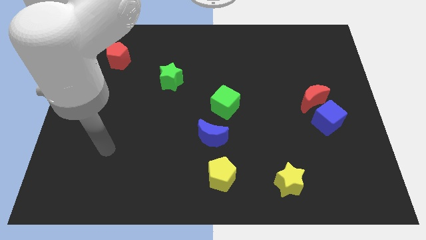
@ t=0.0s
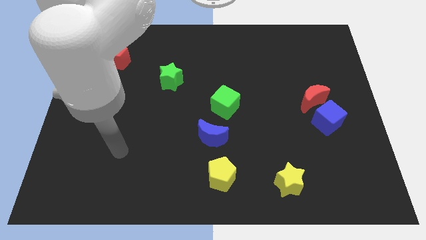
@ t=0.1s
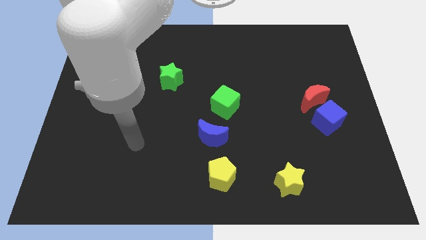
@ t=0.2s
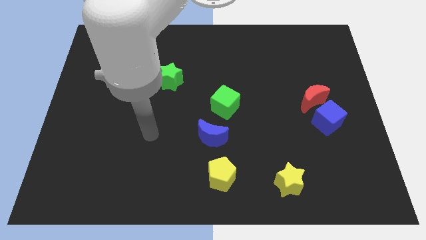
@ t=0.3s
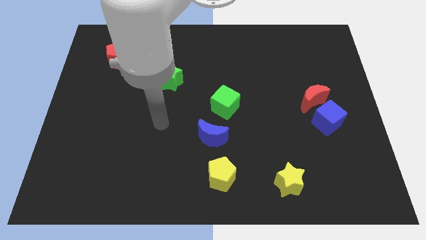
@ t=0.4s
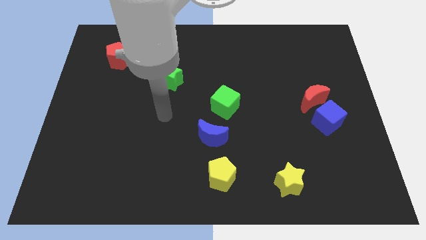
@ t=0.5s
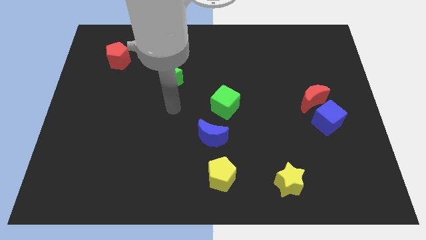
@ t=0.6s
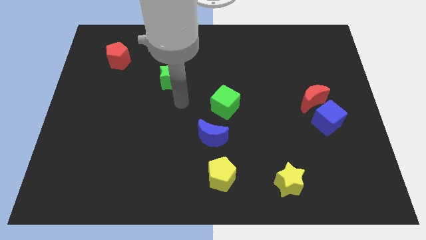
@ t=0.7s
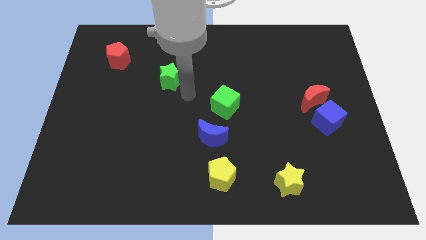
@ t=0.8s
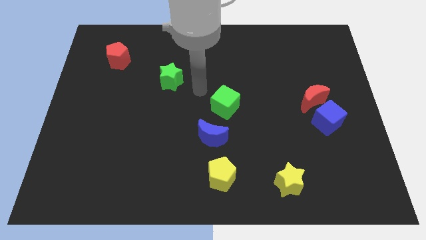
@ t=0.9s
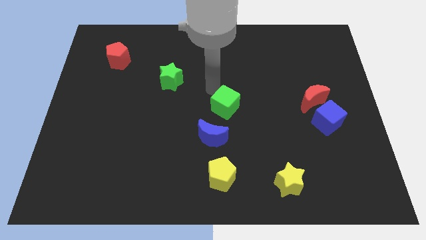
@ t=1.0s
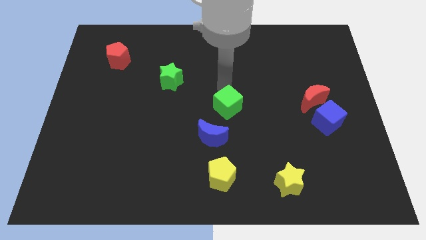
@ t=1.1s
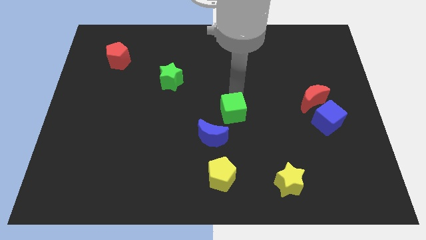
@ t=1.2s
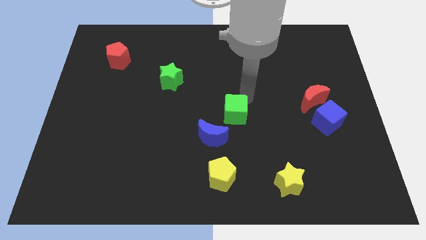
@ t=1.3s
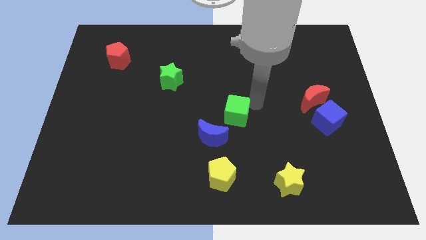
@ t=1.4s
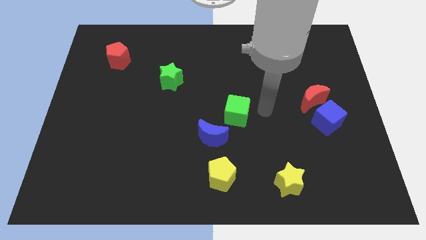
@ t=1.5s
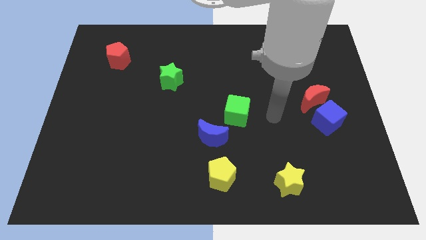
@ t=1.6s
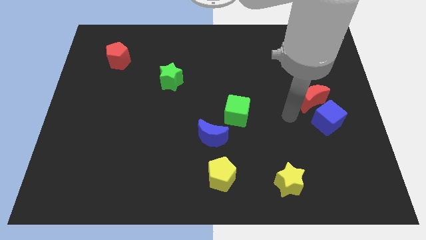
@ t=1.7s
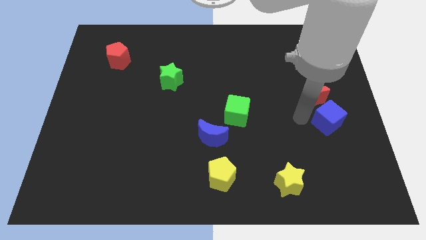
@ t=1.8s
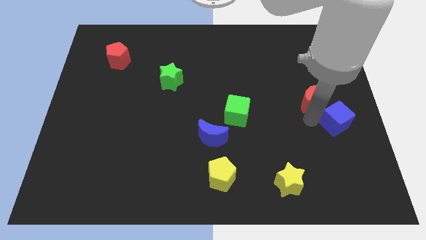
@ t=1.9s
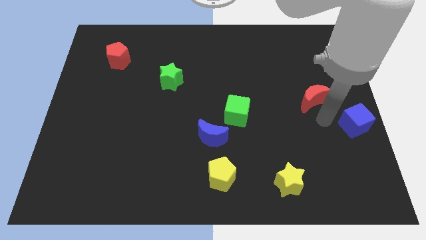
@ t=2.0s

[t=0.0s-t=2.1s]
pull the red moon apart from the blue cube

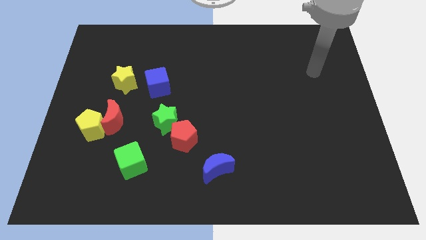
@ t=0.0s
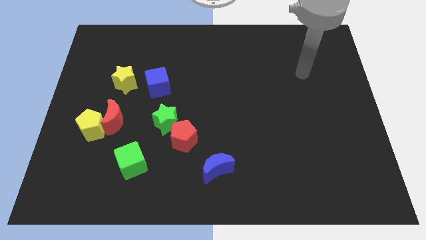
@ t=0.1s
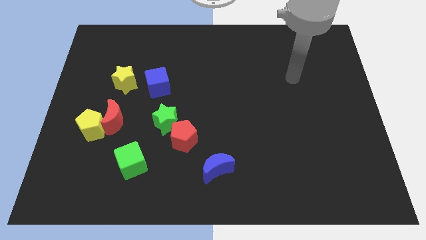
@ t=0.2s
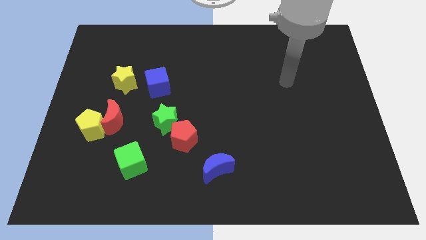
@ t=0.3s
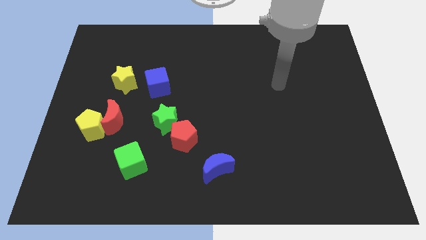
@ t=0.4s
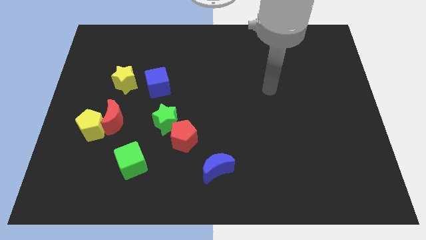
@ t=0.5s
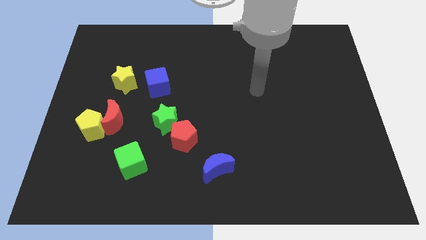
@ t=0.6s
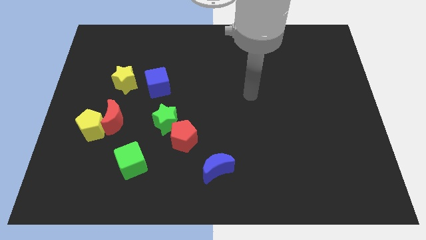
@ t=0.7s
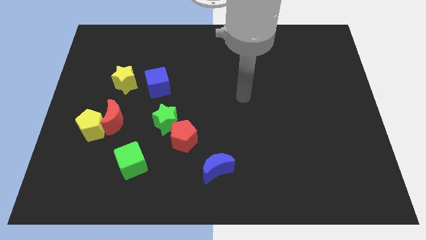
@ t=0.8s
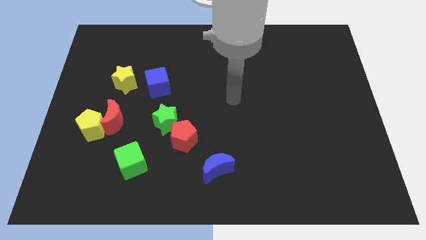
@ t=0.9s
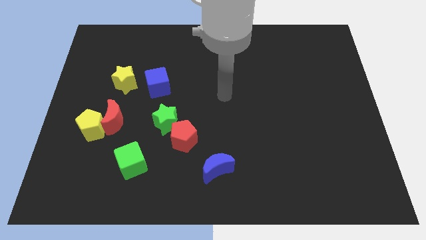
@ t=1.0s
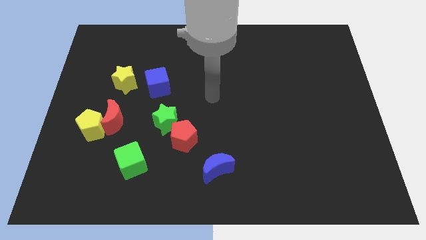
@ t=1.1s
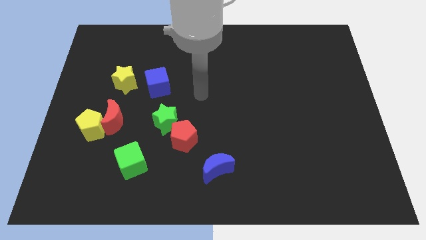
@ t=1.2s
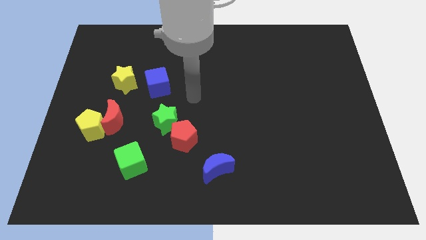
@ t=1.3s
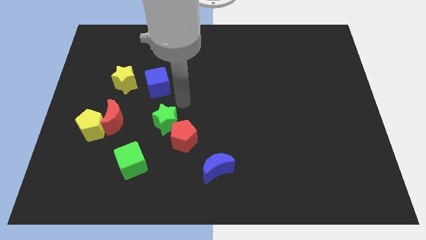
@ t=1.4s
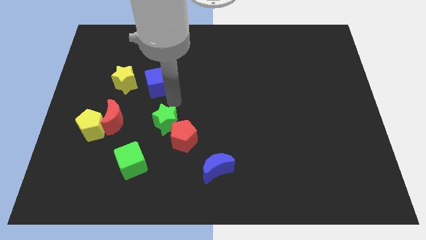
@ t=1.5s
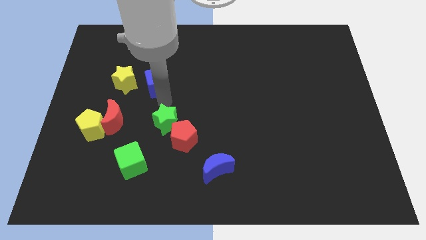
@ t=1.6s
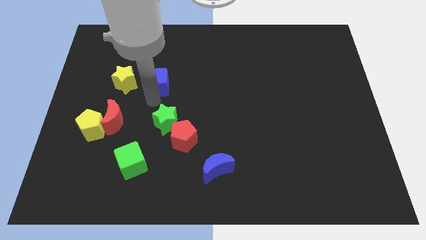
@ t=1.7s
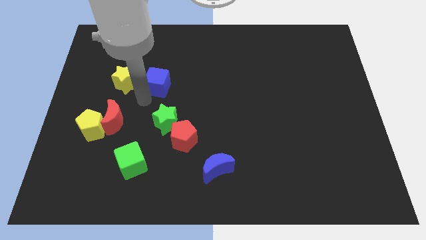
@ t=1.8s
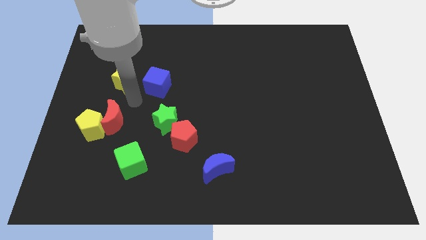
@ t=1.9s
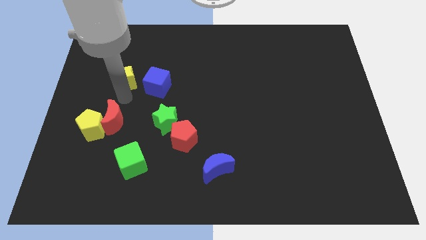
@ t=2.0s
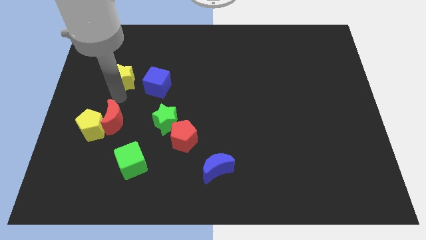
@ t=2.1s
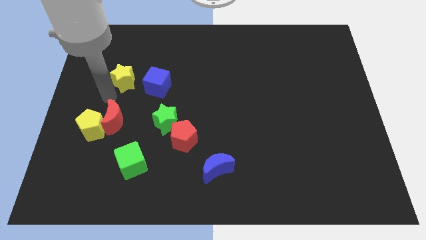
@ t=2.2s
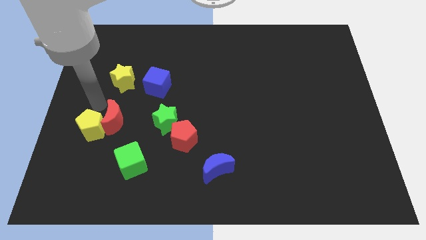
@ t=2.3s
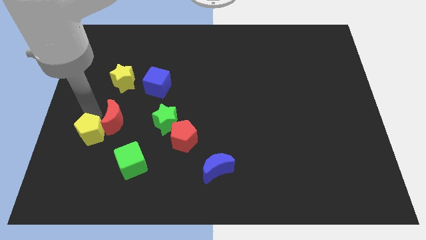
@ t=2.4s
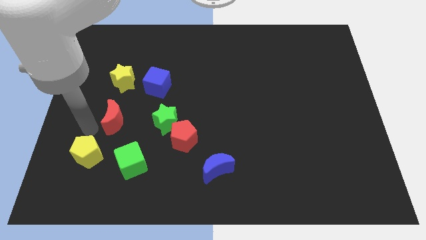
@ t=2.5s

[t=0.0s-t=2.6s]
move the red moon away from the yellow pentagon

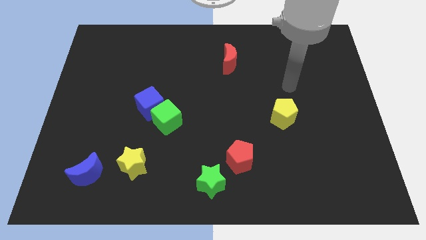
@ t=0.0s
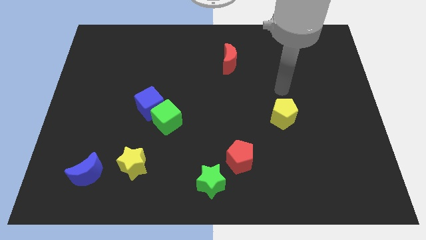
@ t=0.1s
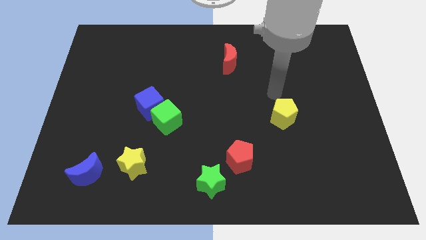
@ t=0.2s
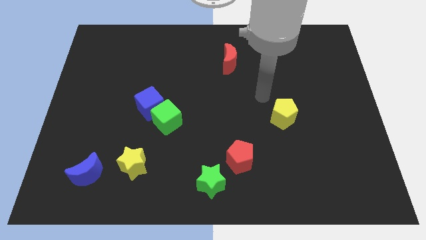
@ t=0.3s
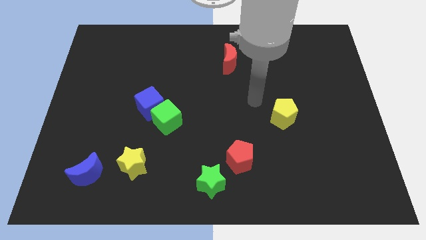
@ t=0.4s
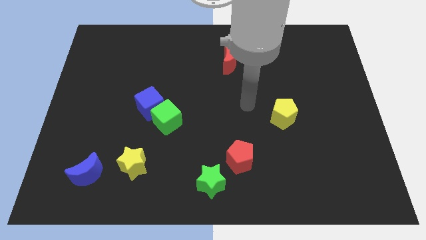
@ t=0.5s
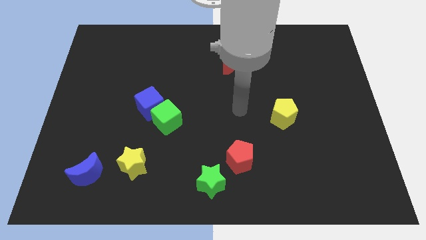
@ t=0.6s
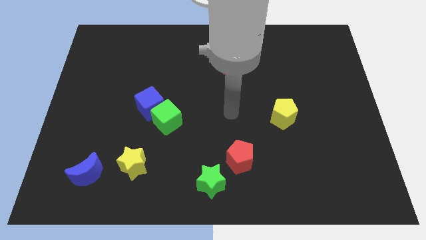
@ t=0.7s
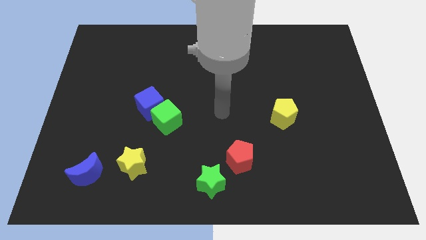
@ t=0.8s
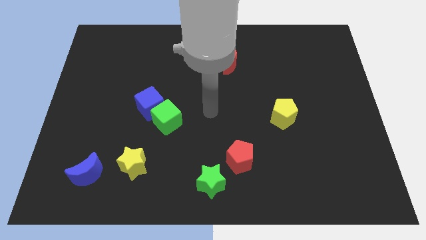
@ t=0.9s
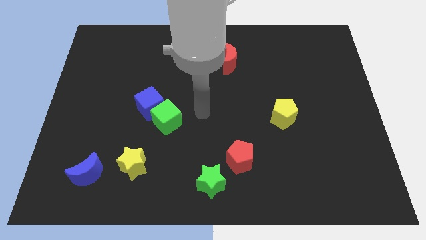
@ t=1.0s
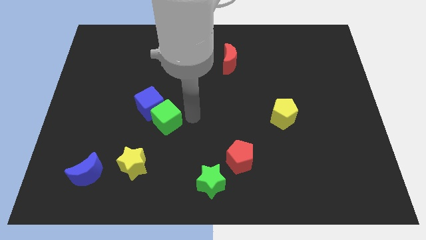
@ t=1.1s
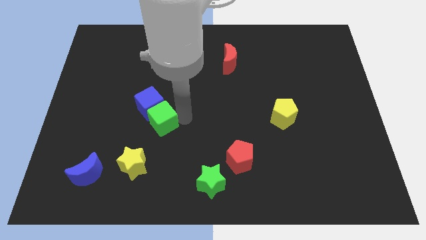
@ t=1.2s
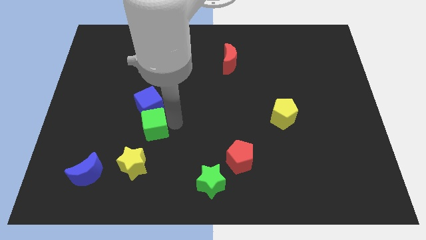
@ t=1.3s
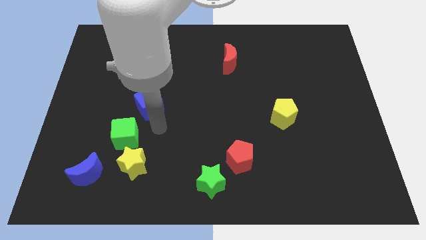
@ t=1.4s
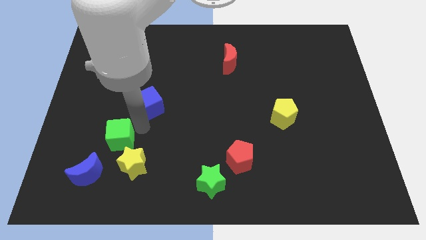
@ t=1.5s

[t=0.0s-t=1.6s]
pull the blue cube apart from the green cube

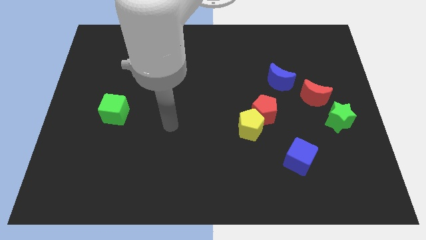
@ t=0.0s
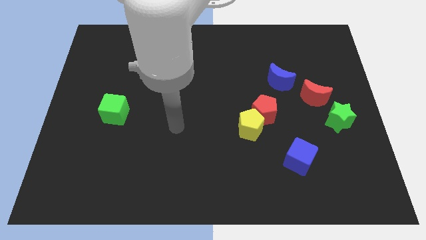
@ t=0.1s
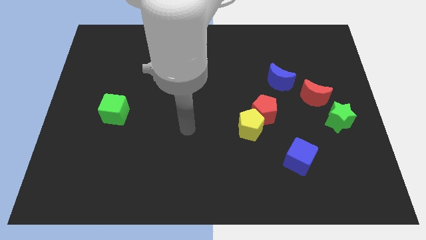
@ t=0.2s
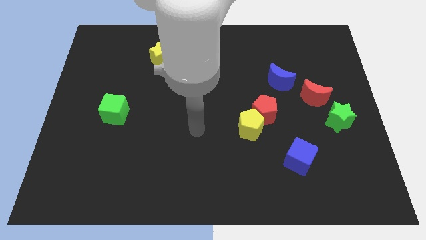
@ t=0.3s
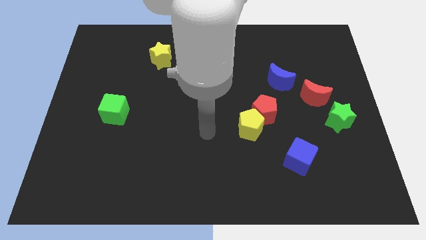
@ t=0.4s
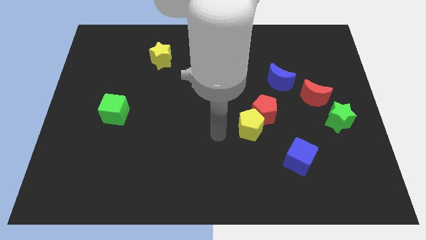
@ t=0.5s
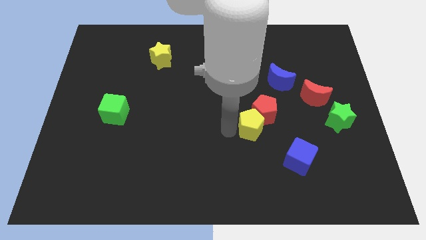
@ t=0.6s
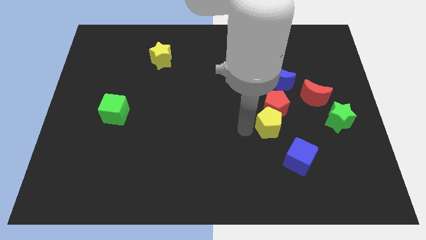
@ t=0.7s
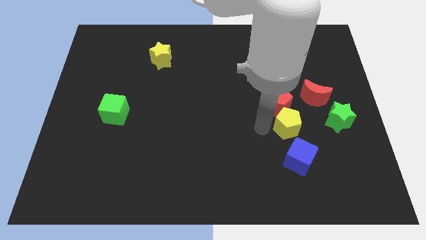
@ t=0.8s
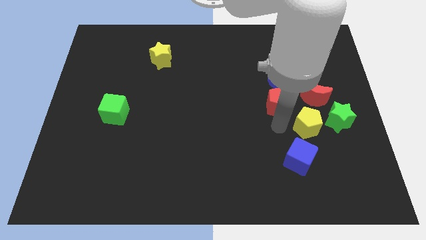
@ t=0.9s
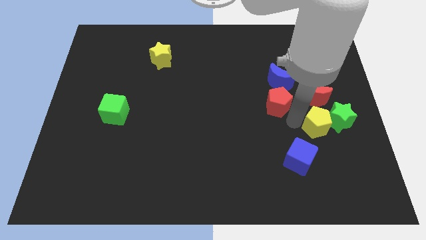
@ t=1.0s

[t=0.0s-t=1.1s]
separate the red pentagon from the yellow pentagon

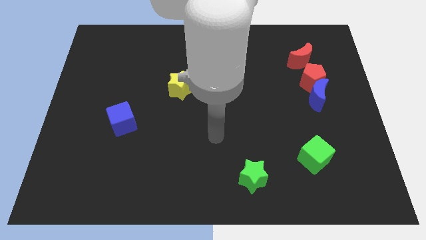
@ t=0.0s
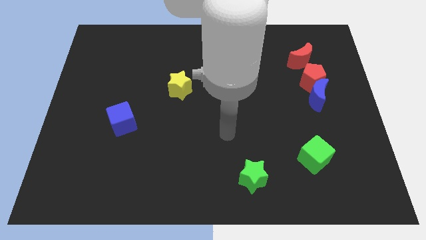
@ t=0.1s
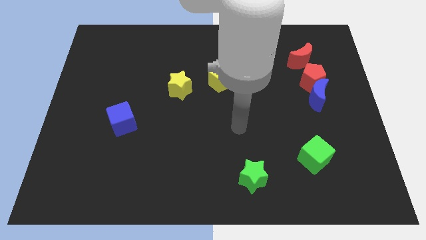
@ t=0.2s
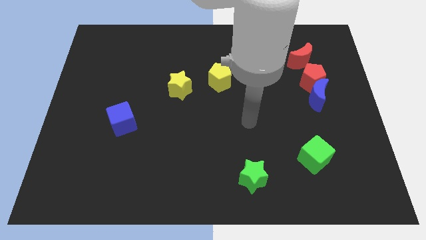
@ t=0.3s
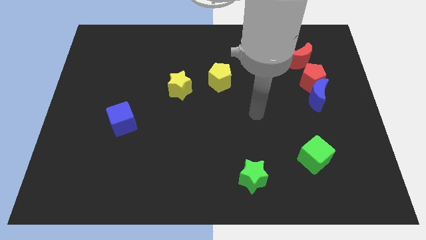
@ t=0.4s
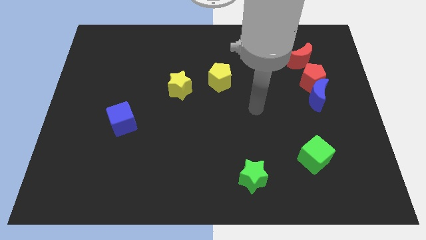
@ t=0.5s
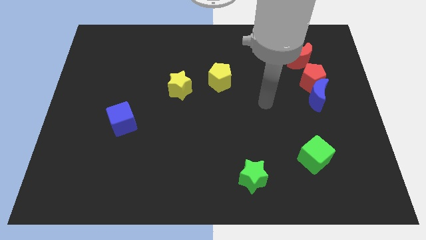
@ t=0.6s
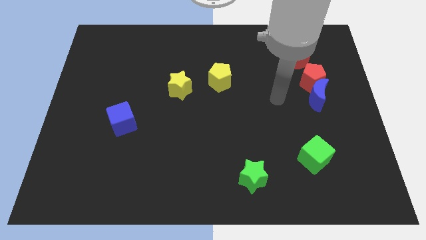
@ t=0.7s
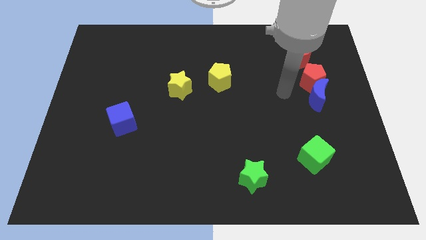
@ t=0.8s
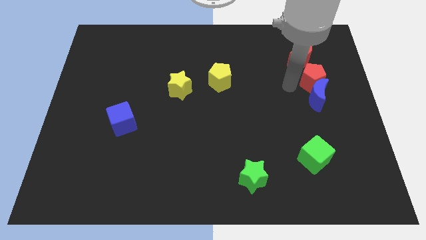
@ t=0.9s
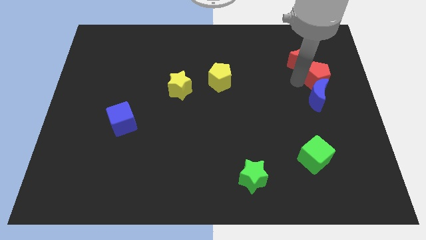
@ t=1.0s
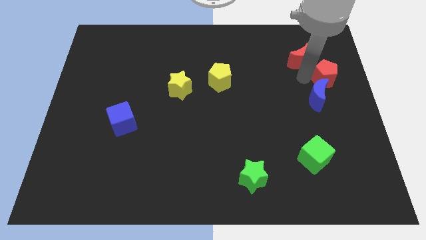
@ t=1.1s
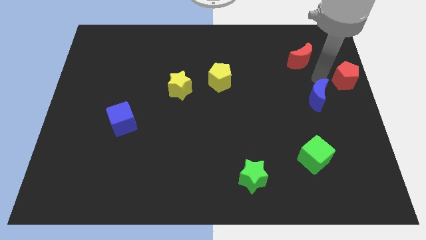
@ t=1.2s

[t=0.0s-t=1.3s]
separate the blue moon from the red pentagon

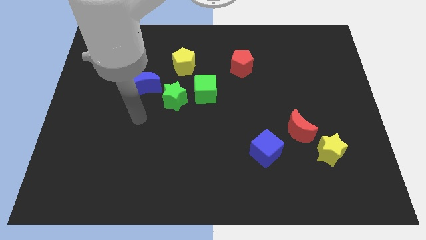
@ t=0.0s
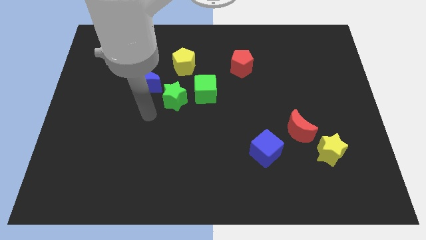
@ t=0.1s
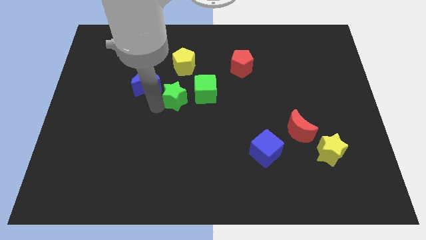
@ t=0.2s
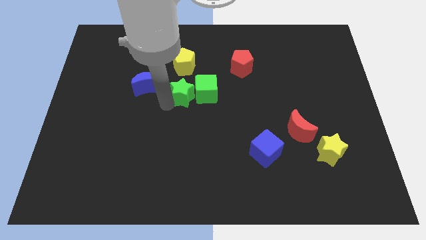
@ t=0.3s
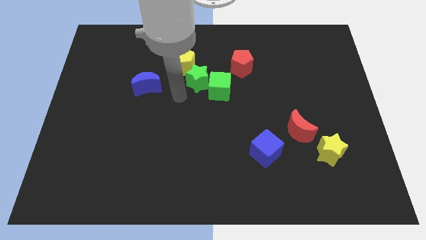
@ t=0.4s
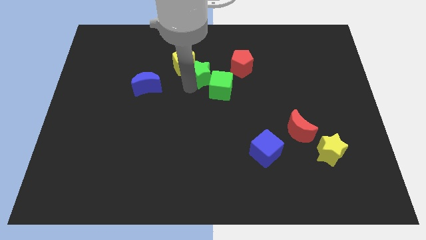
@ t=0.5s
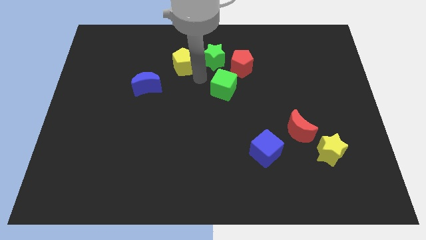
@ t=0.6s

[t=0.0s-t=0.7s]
move the green cube away from the green star
